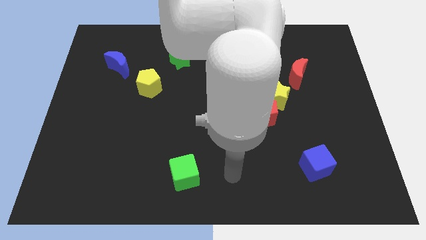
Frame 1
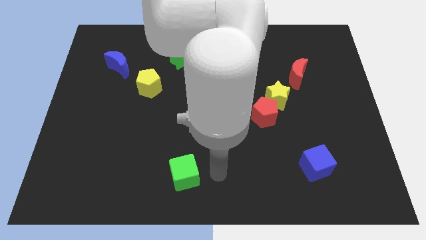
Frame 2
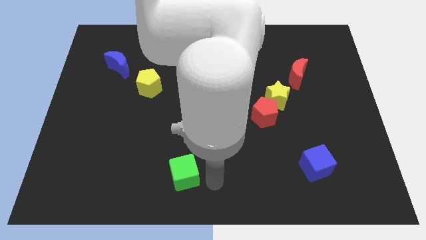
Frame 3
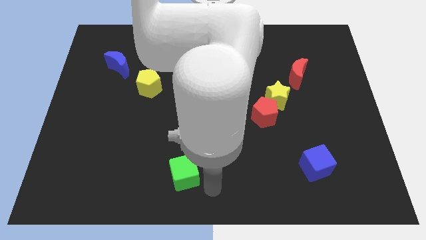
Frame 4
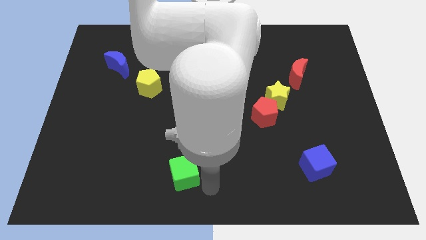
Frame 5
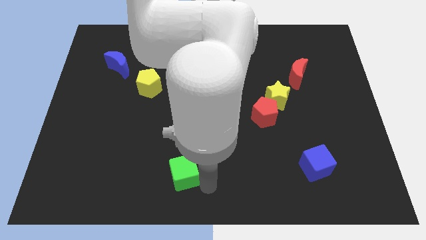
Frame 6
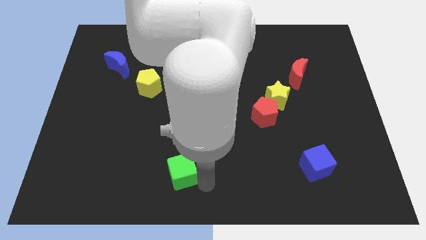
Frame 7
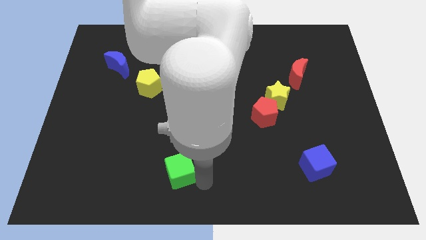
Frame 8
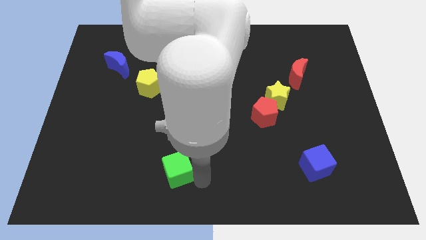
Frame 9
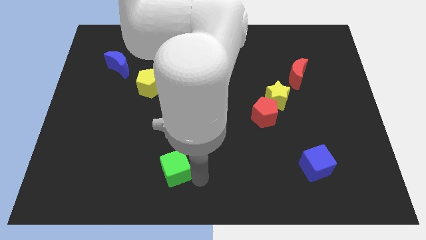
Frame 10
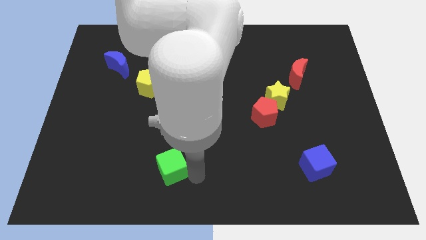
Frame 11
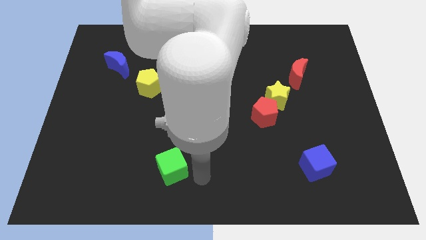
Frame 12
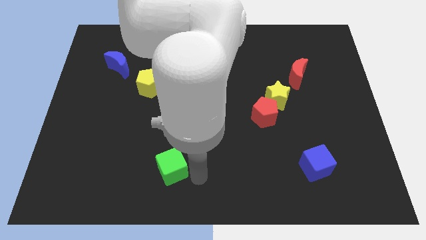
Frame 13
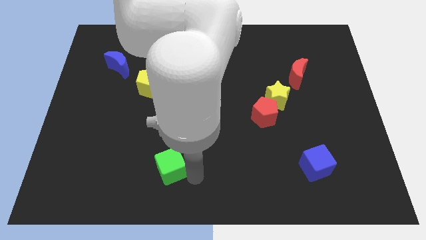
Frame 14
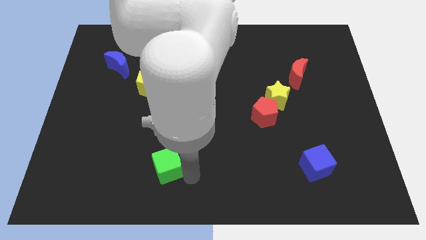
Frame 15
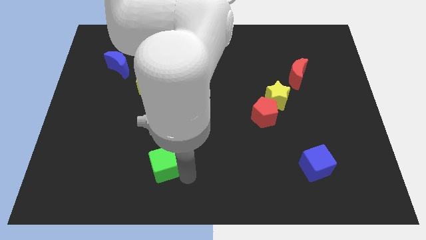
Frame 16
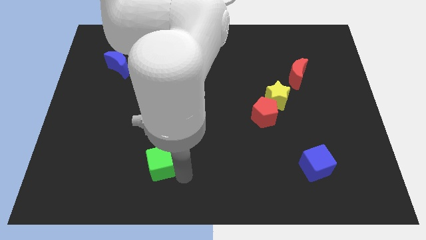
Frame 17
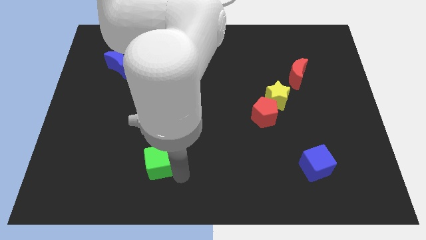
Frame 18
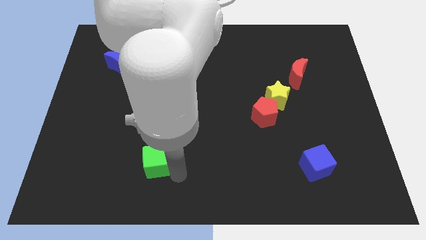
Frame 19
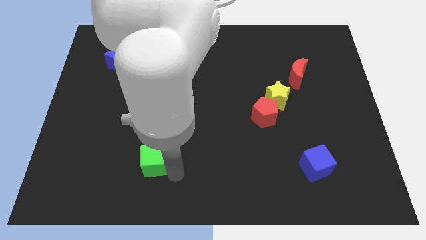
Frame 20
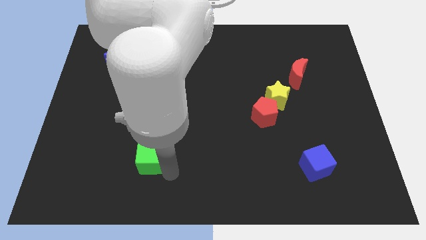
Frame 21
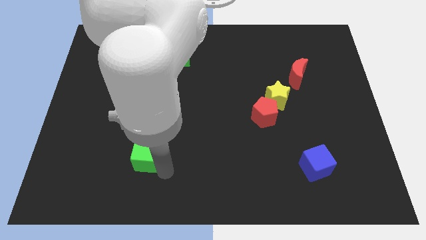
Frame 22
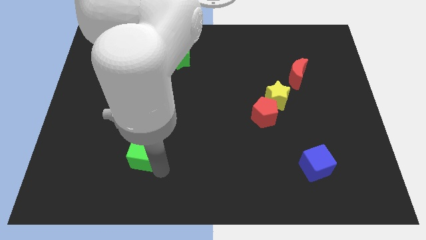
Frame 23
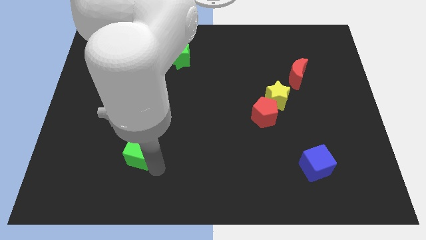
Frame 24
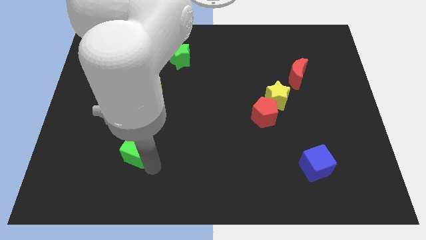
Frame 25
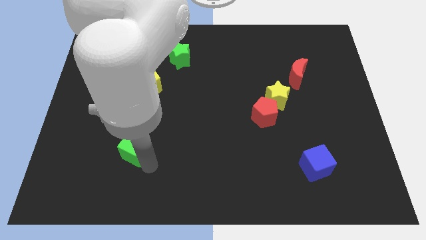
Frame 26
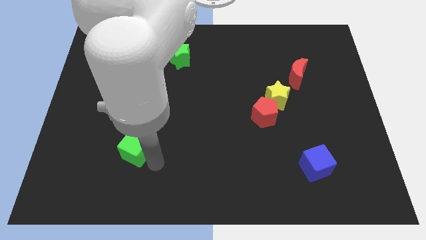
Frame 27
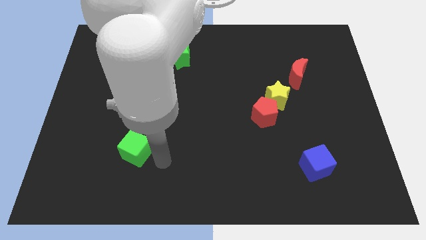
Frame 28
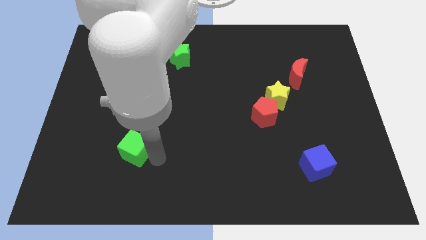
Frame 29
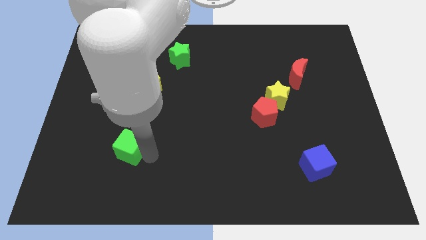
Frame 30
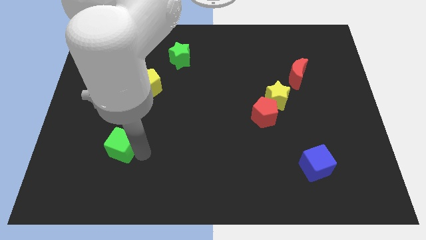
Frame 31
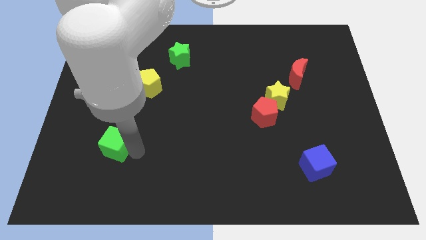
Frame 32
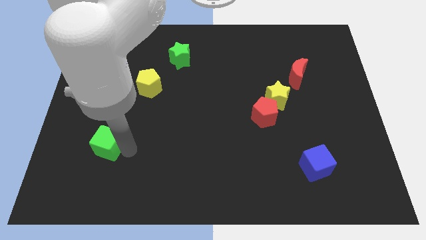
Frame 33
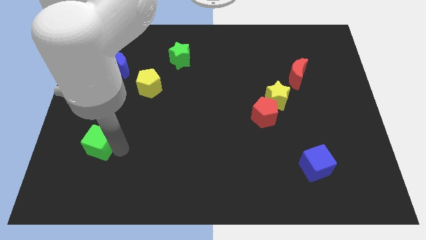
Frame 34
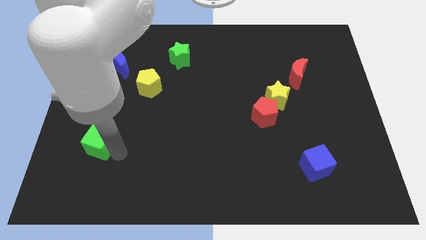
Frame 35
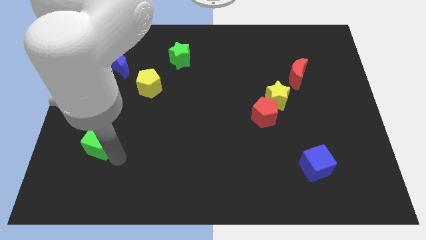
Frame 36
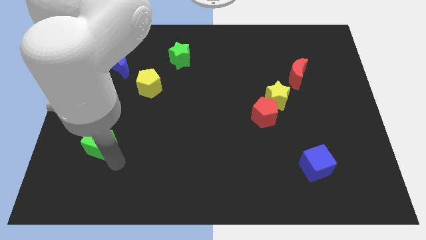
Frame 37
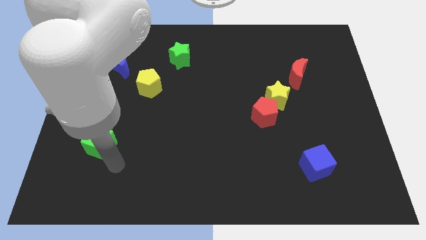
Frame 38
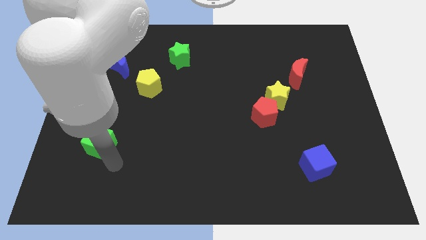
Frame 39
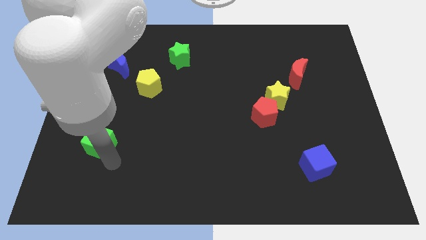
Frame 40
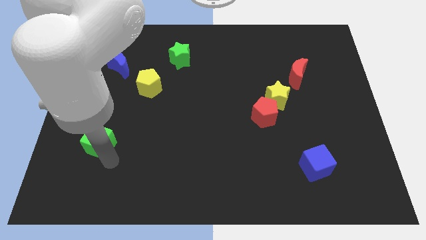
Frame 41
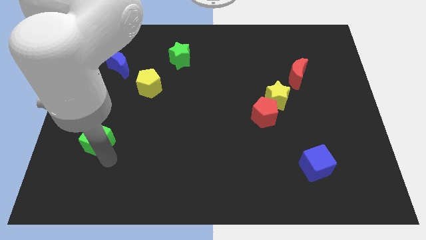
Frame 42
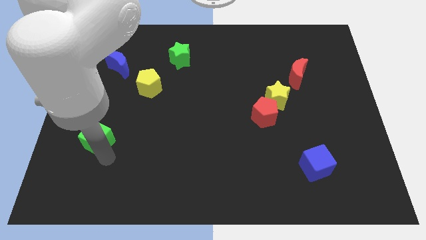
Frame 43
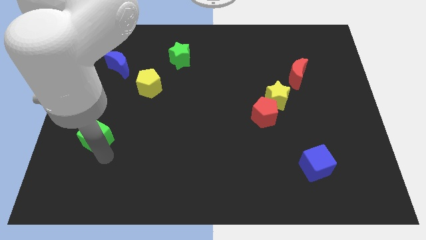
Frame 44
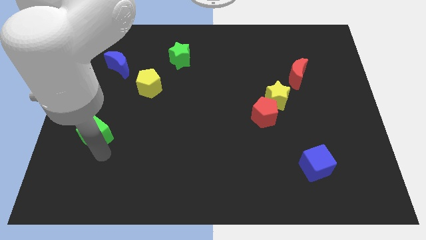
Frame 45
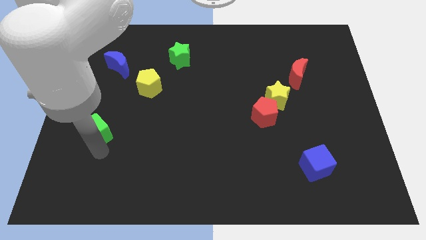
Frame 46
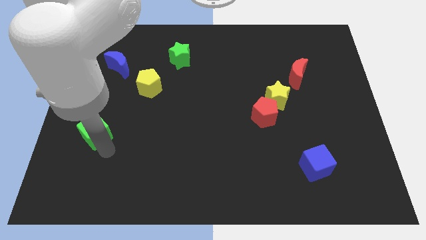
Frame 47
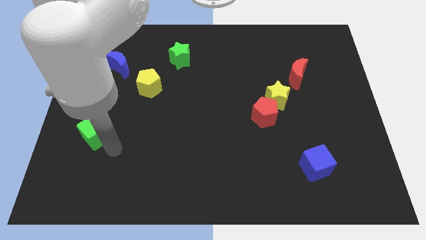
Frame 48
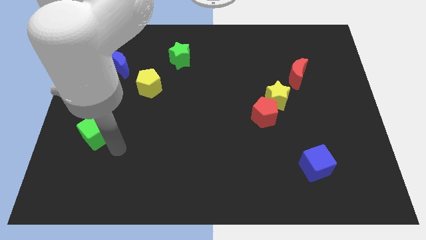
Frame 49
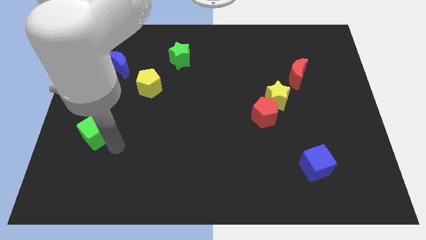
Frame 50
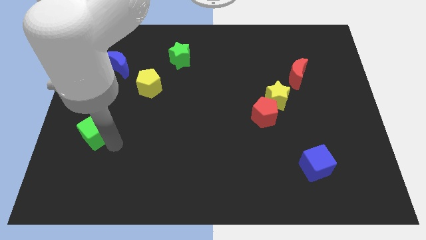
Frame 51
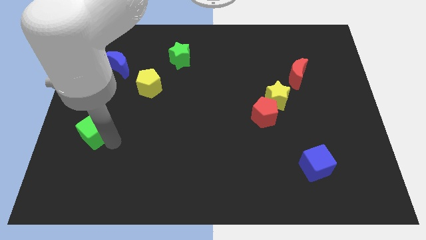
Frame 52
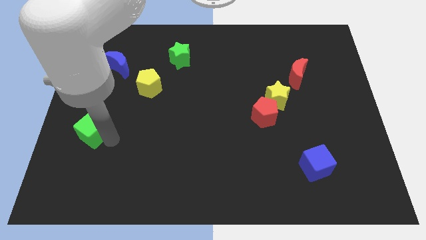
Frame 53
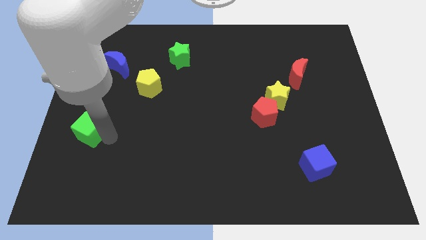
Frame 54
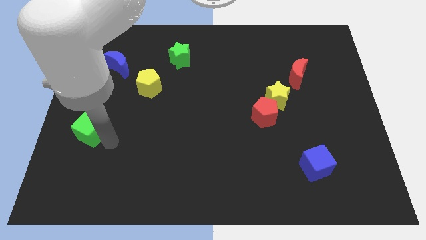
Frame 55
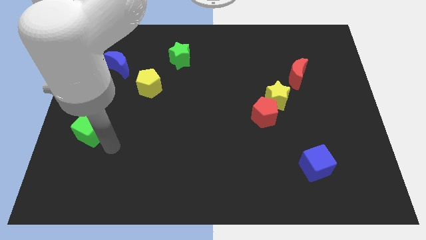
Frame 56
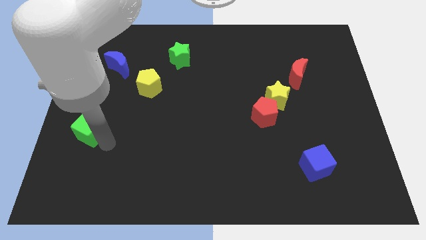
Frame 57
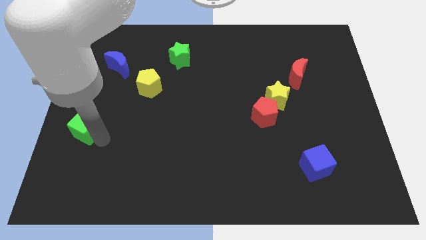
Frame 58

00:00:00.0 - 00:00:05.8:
slide the green cube to the left side

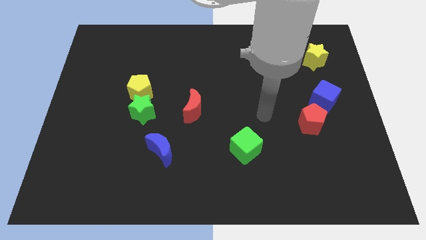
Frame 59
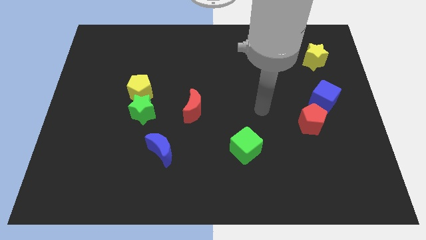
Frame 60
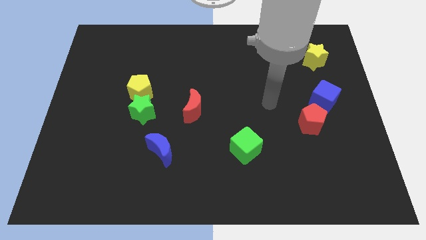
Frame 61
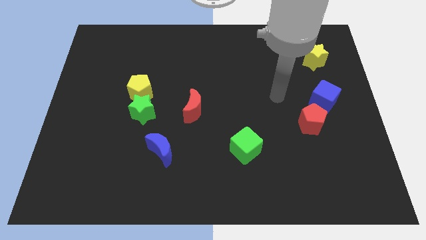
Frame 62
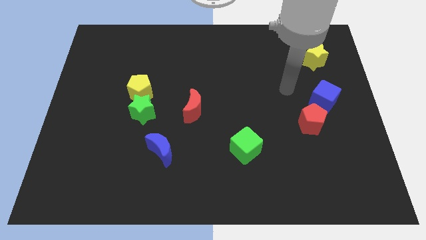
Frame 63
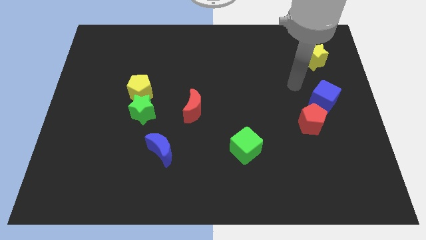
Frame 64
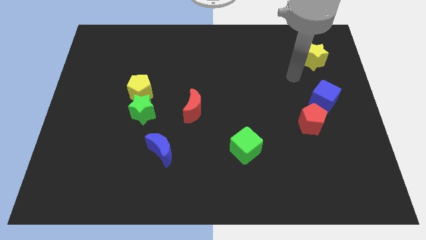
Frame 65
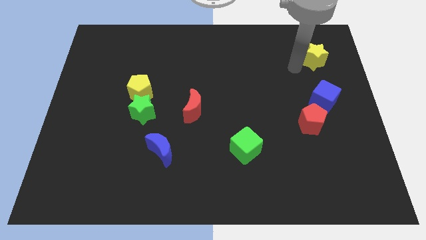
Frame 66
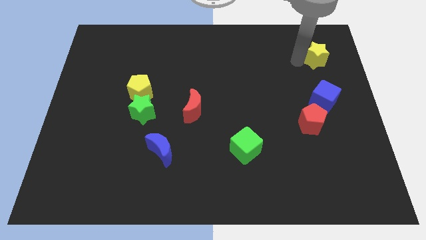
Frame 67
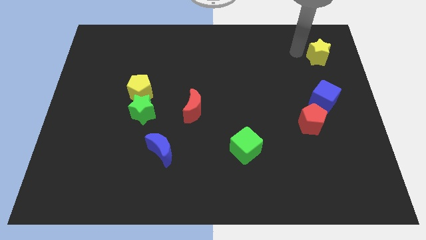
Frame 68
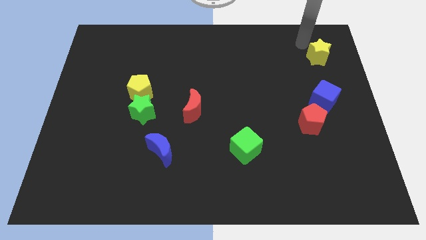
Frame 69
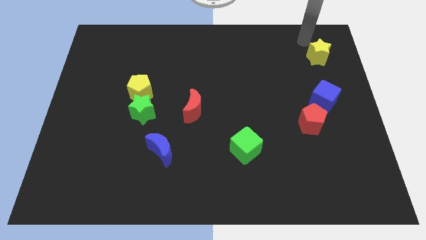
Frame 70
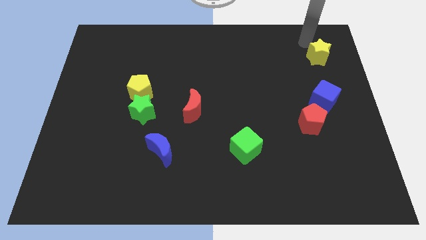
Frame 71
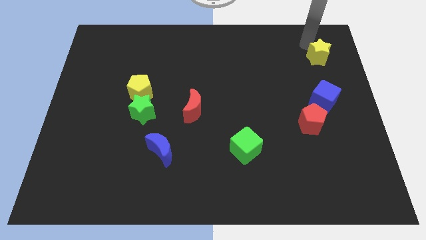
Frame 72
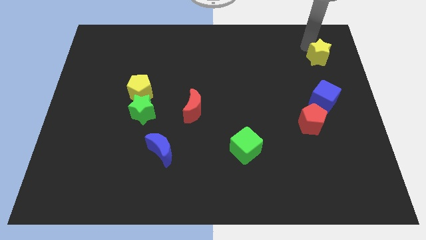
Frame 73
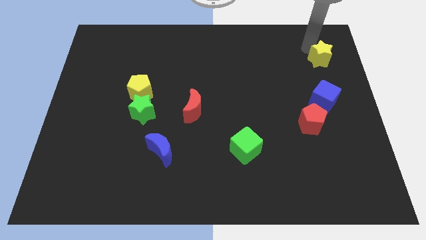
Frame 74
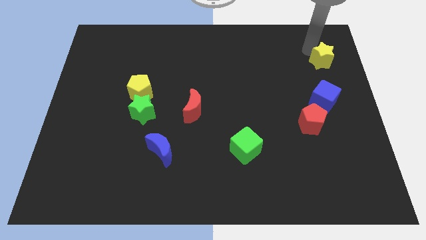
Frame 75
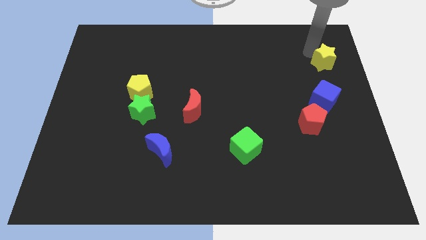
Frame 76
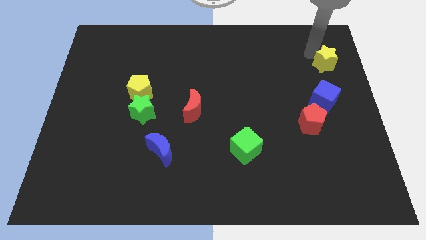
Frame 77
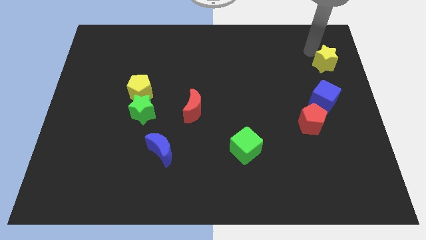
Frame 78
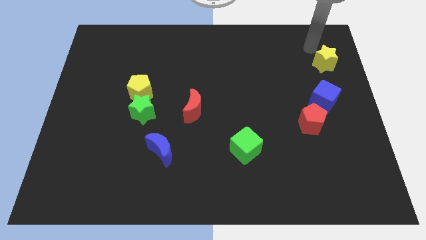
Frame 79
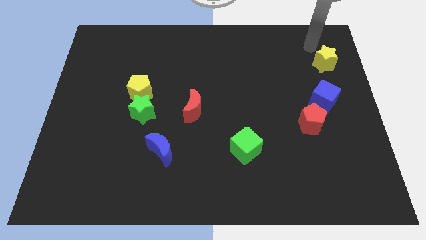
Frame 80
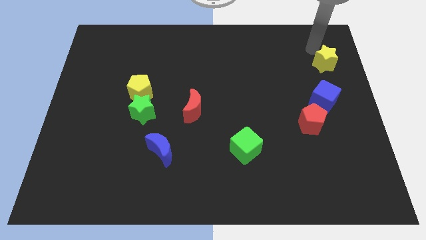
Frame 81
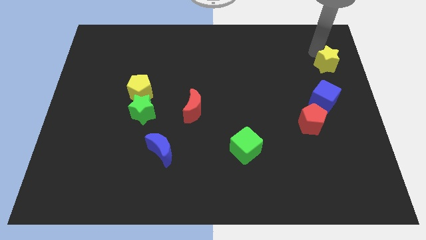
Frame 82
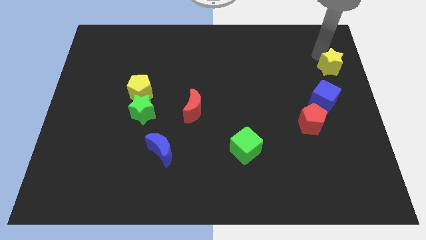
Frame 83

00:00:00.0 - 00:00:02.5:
slide the yellow star to the center right
